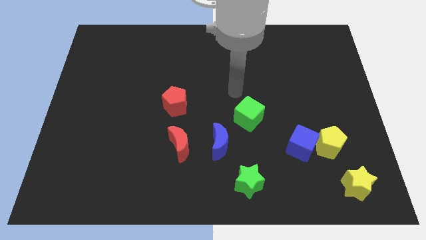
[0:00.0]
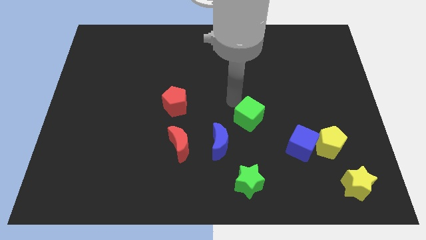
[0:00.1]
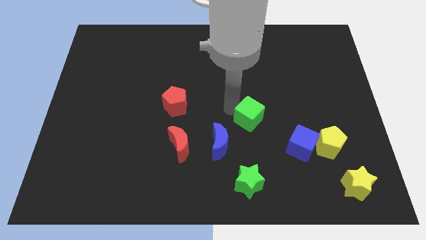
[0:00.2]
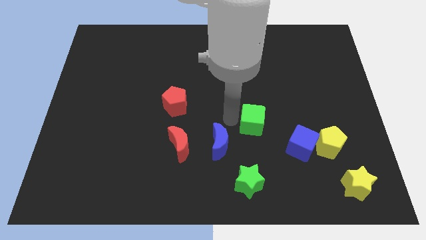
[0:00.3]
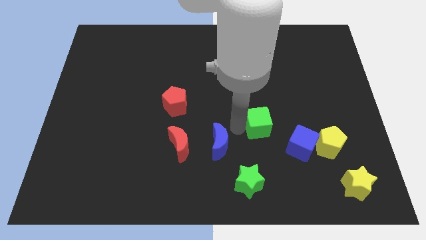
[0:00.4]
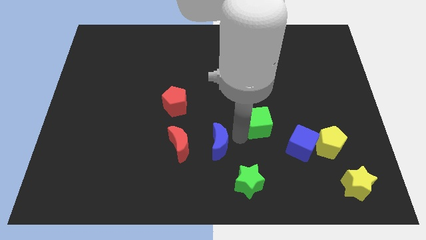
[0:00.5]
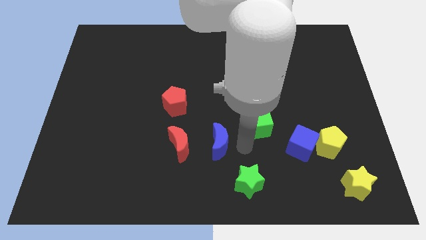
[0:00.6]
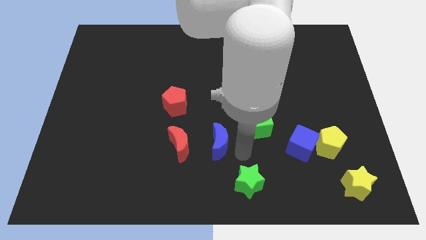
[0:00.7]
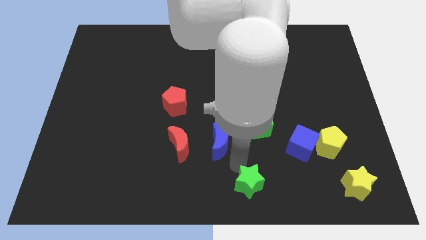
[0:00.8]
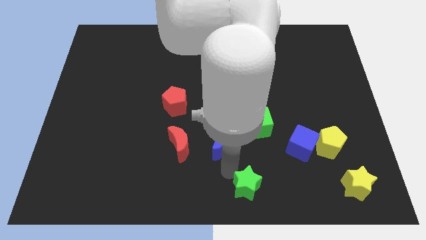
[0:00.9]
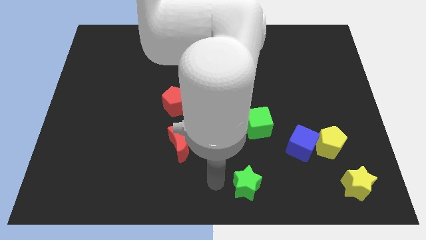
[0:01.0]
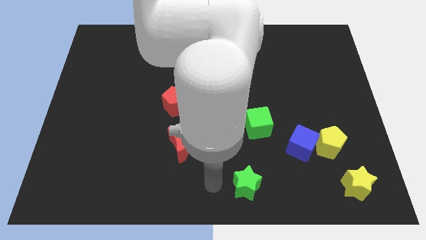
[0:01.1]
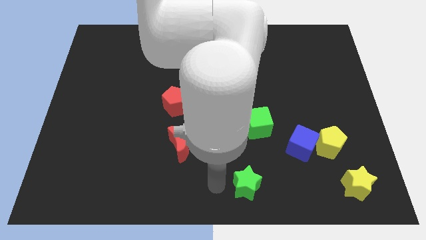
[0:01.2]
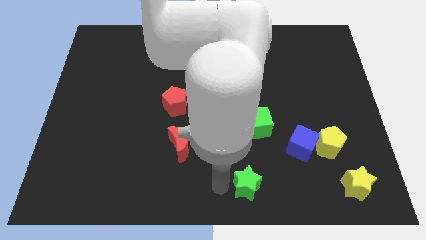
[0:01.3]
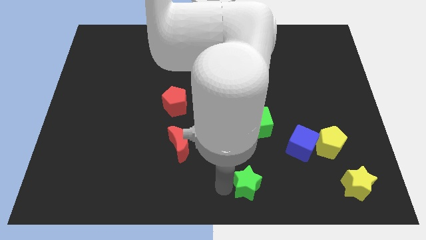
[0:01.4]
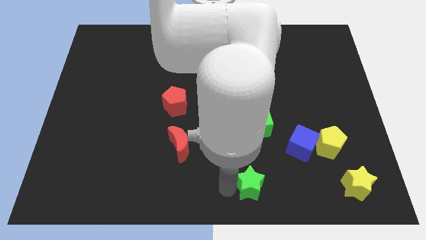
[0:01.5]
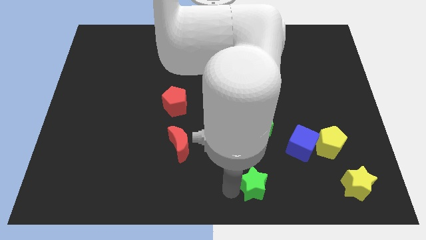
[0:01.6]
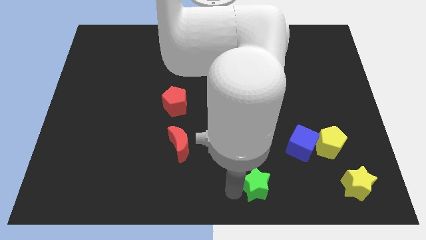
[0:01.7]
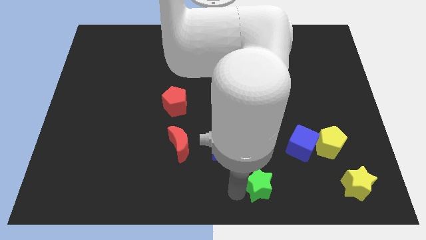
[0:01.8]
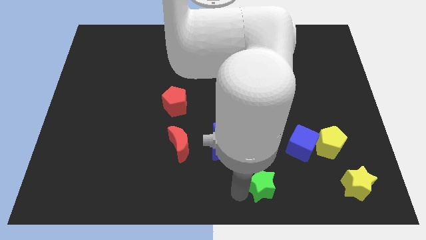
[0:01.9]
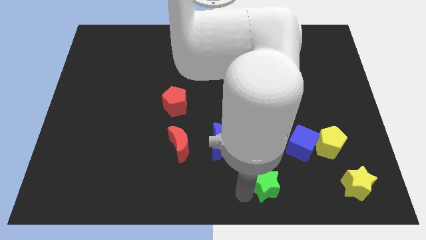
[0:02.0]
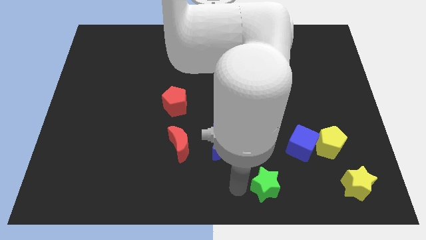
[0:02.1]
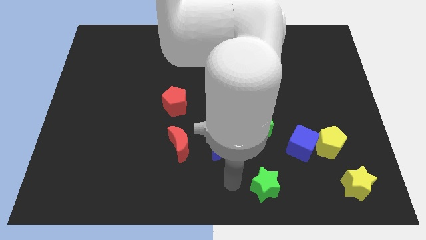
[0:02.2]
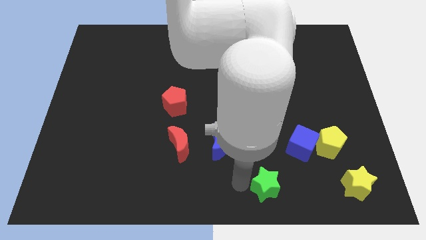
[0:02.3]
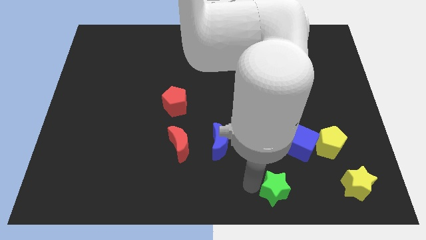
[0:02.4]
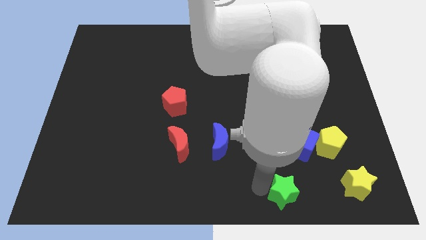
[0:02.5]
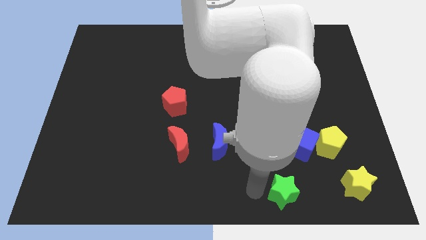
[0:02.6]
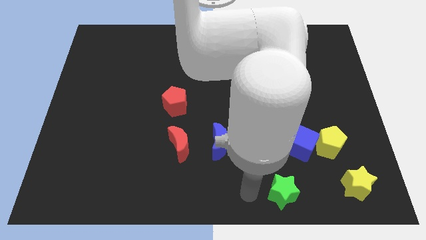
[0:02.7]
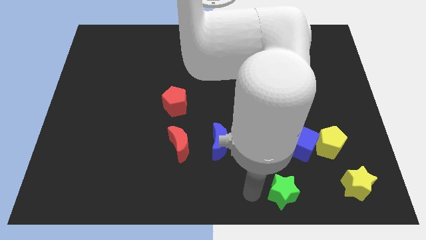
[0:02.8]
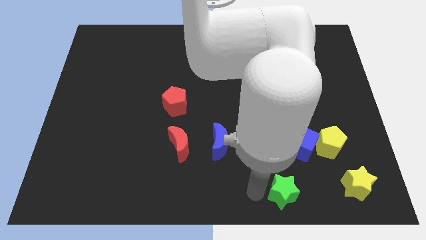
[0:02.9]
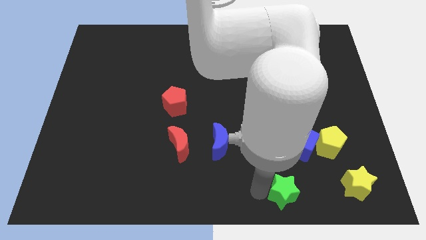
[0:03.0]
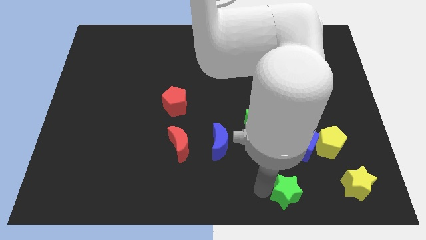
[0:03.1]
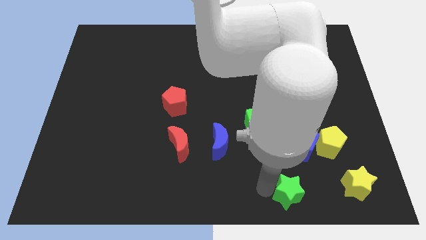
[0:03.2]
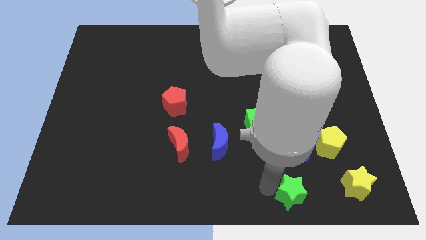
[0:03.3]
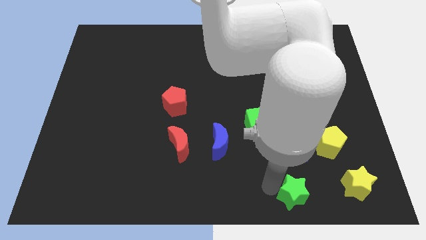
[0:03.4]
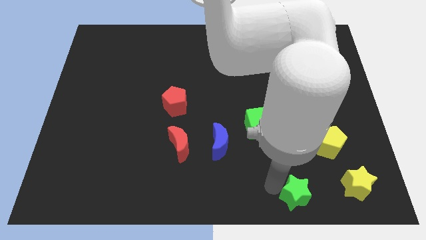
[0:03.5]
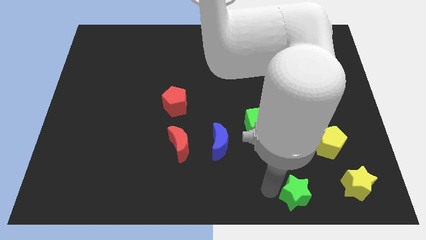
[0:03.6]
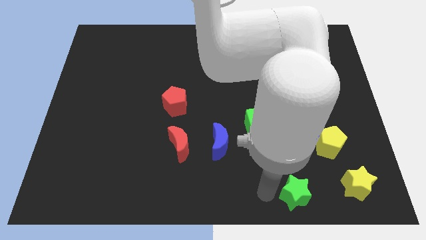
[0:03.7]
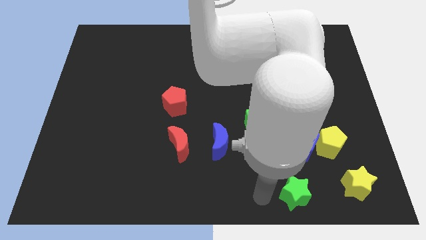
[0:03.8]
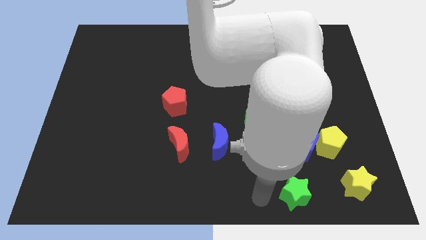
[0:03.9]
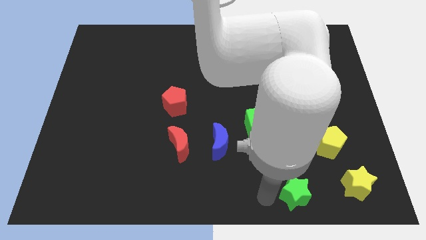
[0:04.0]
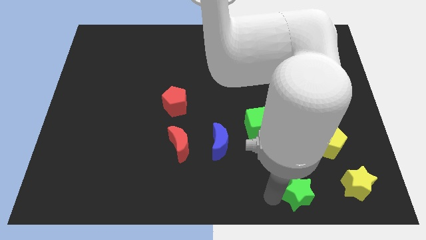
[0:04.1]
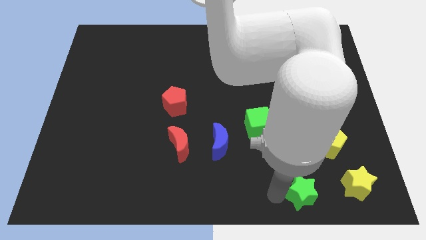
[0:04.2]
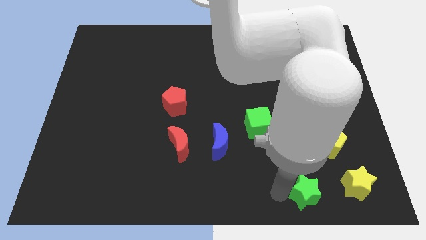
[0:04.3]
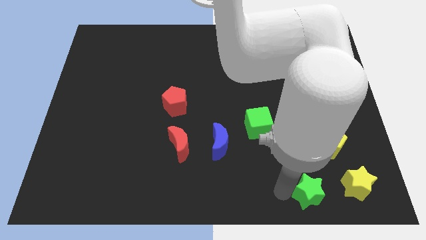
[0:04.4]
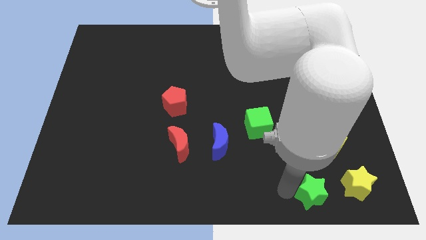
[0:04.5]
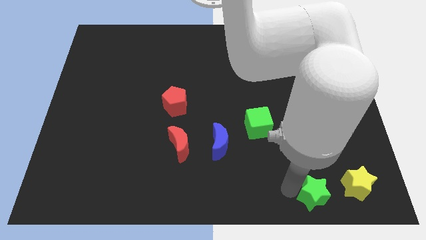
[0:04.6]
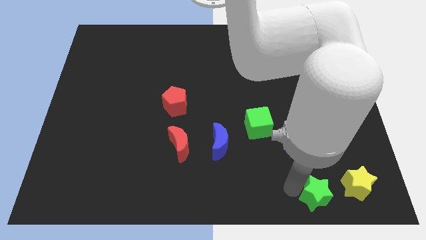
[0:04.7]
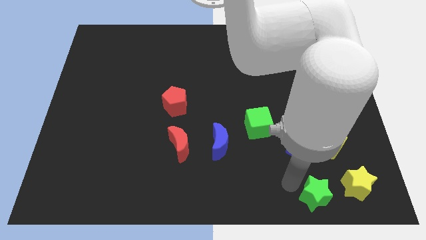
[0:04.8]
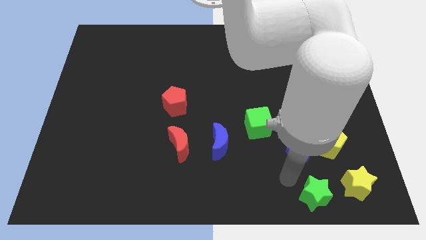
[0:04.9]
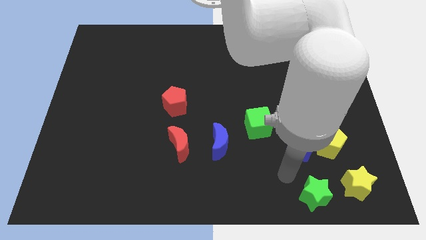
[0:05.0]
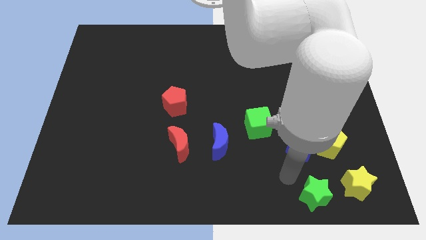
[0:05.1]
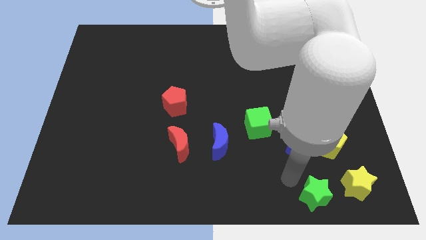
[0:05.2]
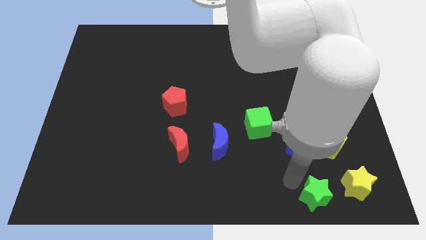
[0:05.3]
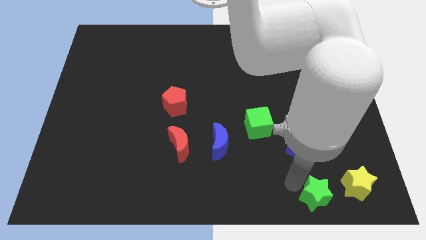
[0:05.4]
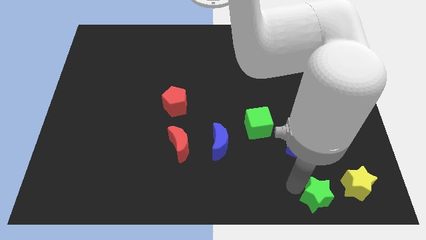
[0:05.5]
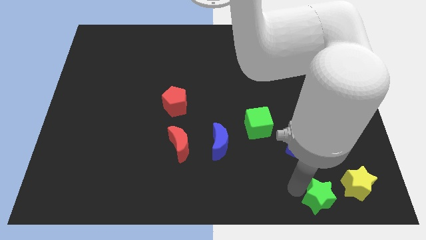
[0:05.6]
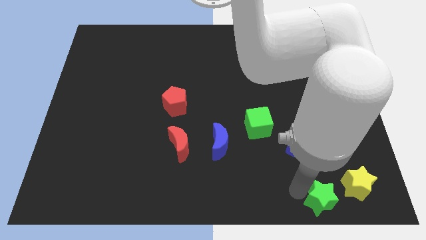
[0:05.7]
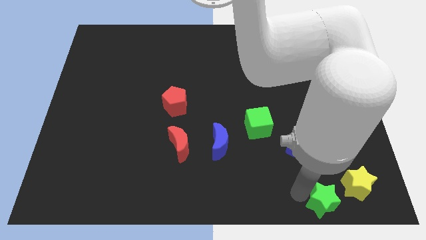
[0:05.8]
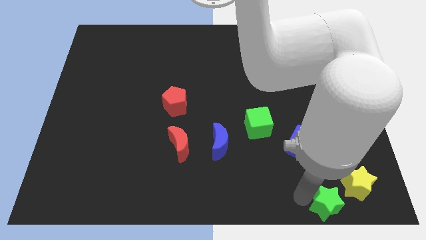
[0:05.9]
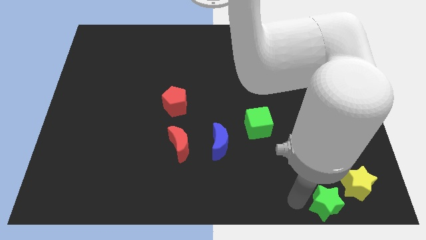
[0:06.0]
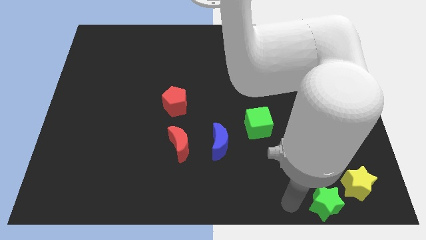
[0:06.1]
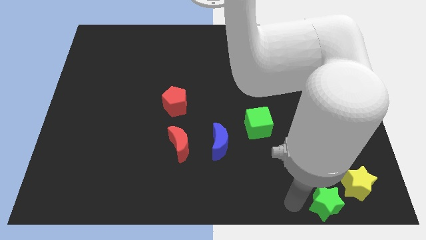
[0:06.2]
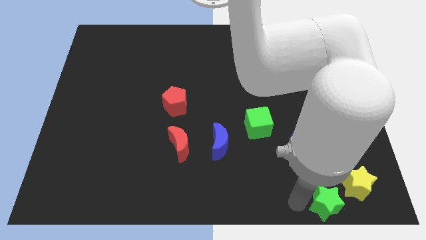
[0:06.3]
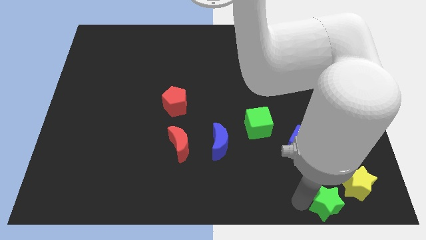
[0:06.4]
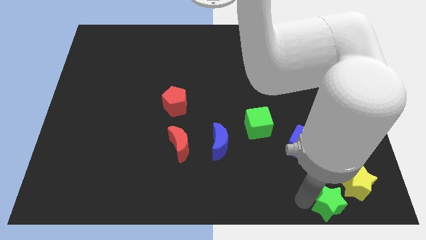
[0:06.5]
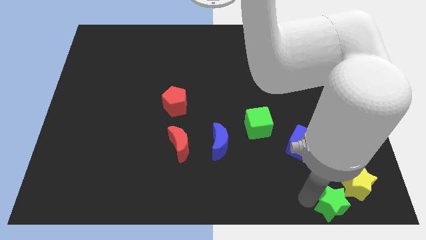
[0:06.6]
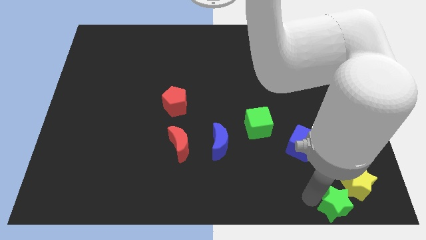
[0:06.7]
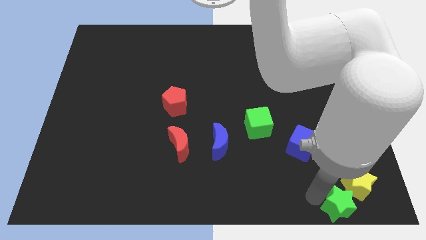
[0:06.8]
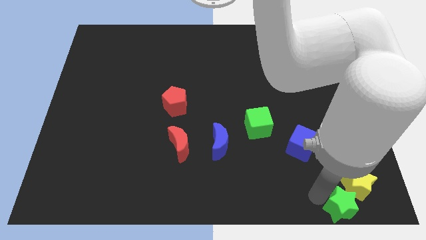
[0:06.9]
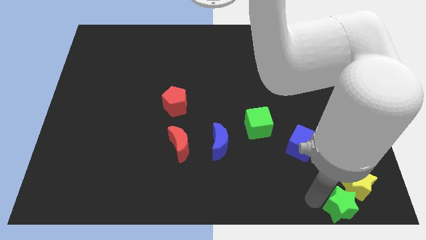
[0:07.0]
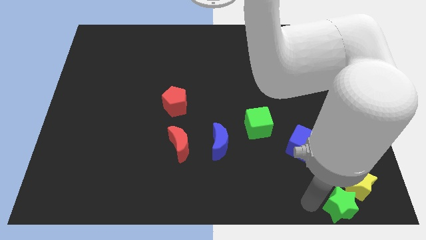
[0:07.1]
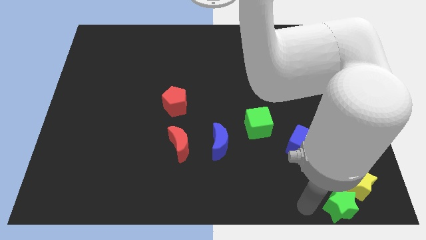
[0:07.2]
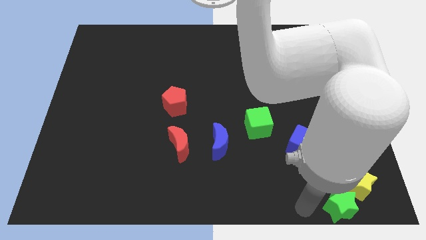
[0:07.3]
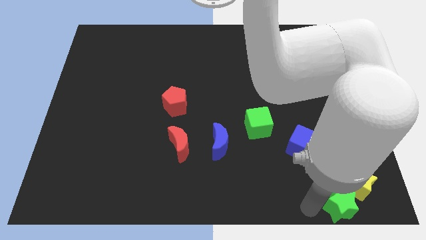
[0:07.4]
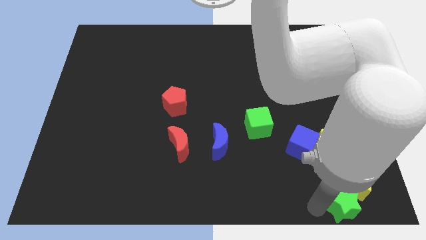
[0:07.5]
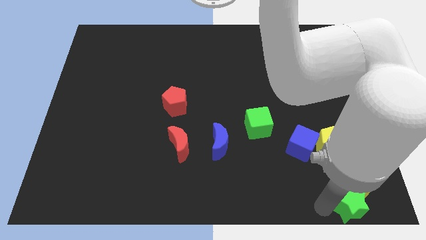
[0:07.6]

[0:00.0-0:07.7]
push the green star to the lower right corner
